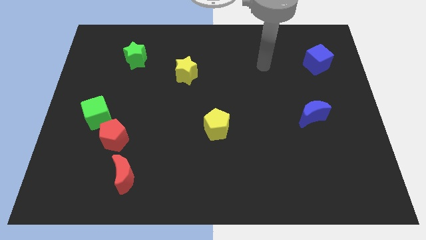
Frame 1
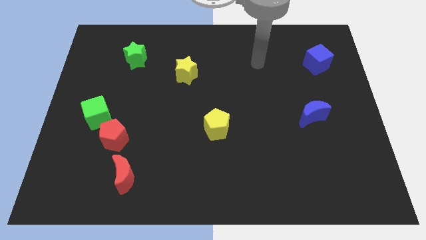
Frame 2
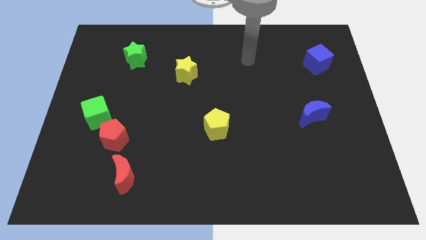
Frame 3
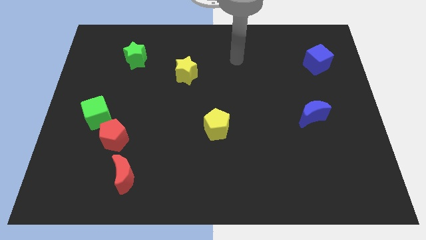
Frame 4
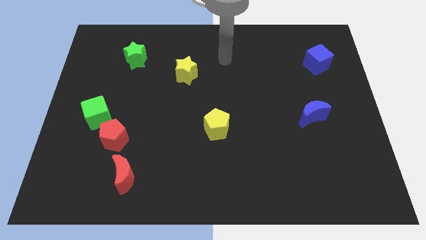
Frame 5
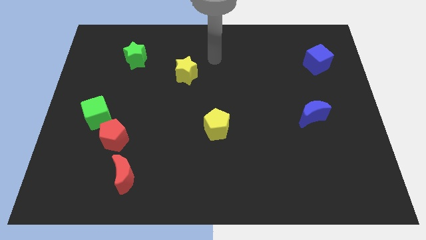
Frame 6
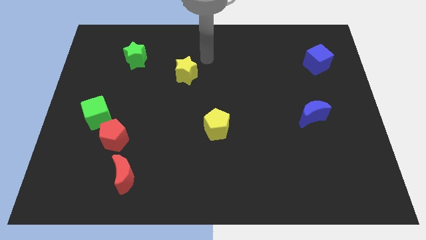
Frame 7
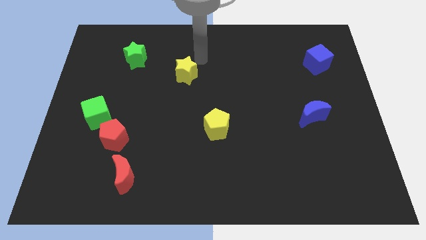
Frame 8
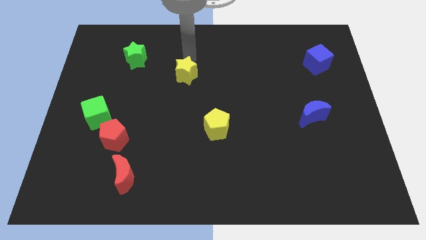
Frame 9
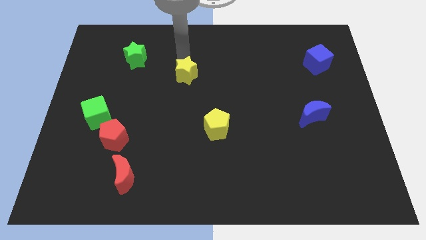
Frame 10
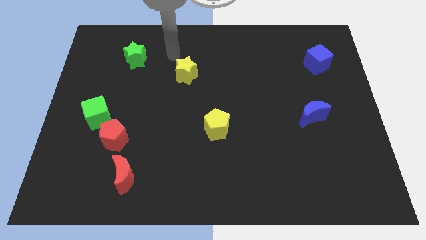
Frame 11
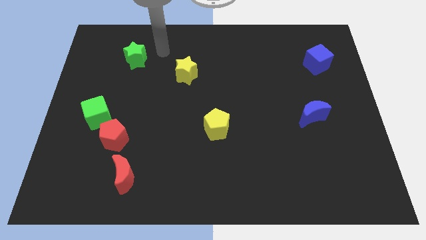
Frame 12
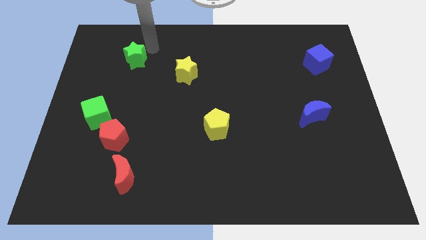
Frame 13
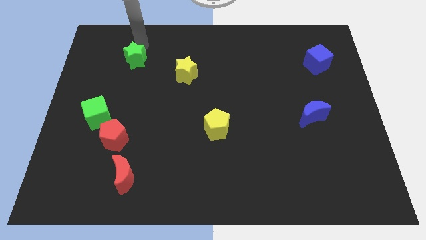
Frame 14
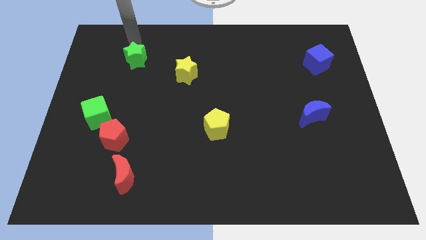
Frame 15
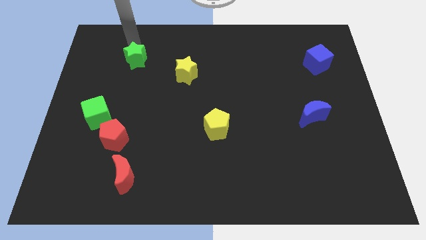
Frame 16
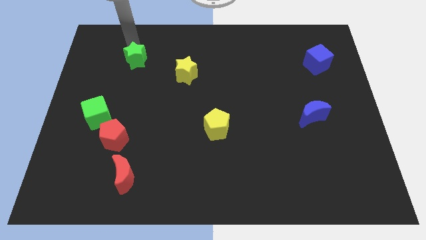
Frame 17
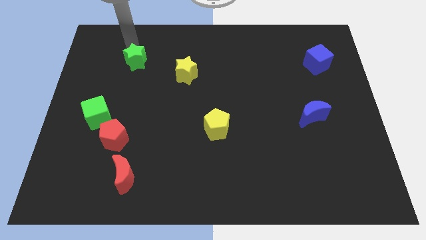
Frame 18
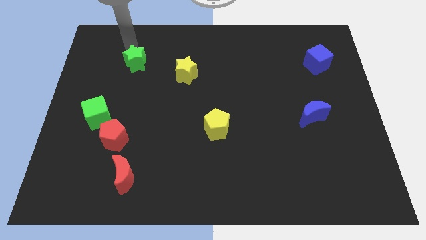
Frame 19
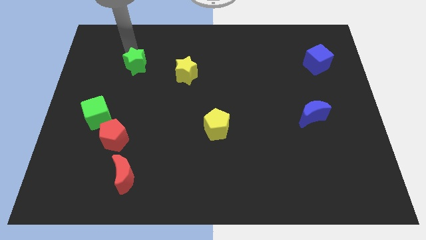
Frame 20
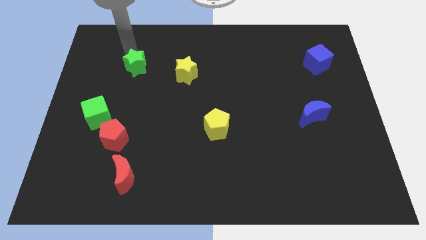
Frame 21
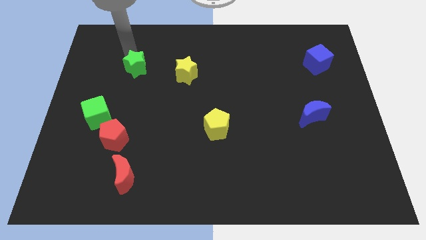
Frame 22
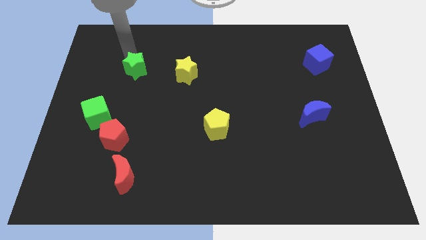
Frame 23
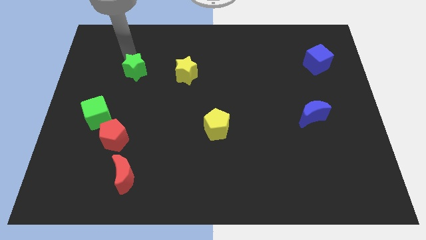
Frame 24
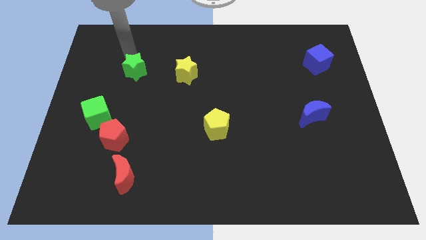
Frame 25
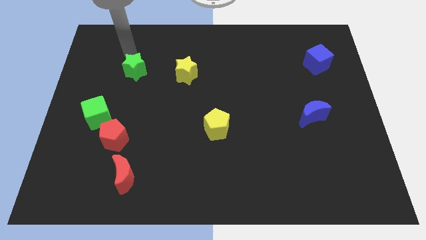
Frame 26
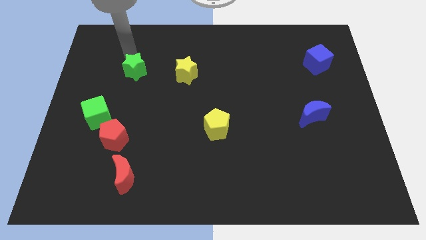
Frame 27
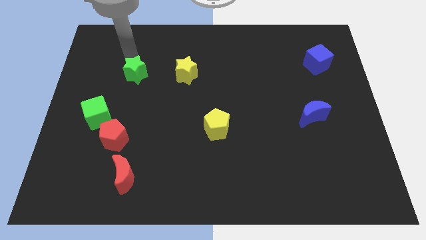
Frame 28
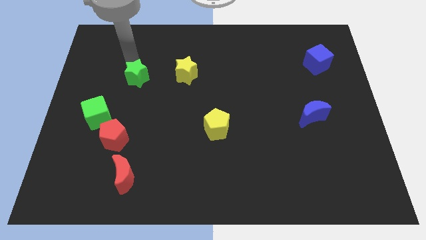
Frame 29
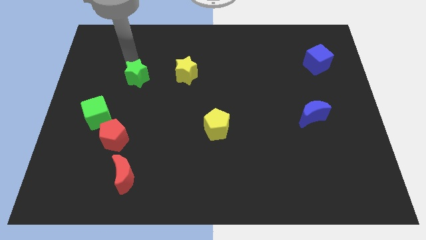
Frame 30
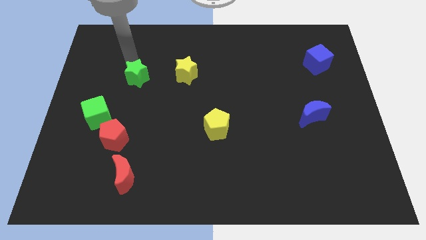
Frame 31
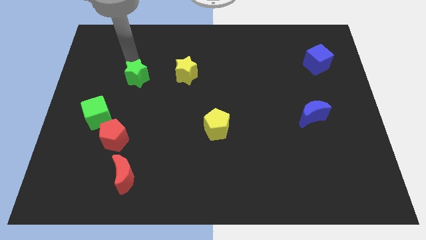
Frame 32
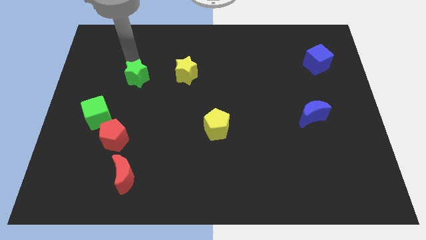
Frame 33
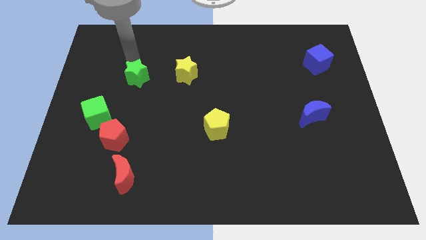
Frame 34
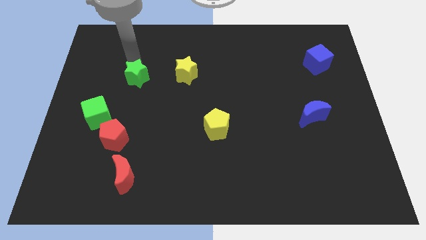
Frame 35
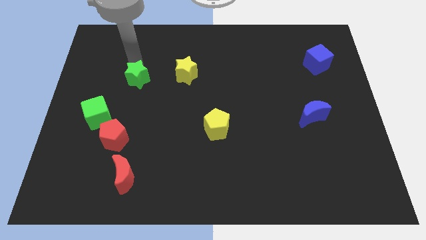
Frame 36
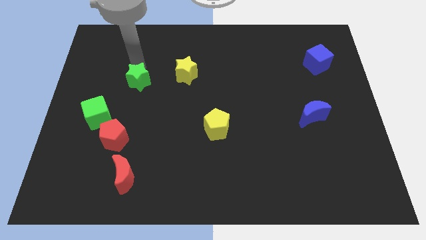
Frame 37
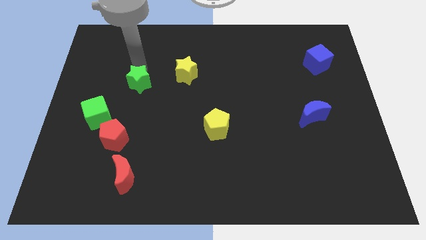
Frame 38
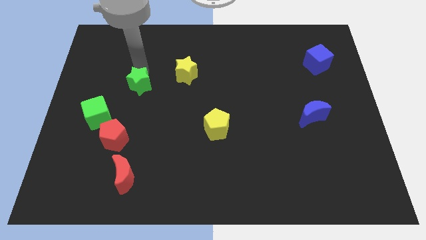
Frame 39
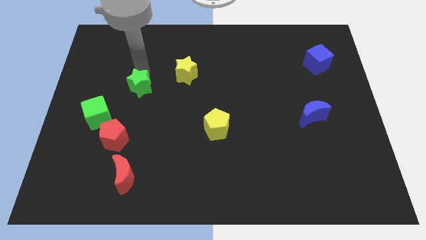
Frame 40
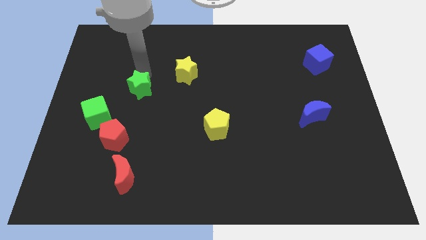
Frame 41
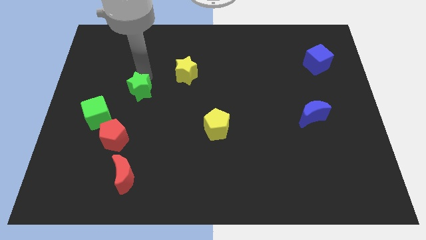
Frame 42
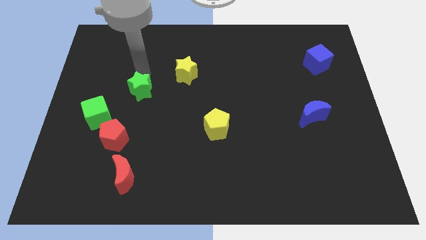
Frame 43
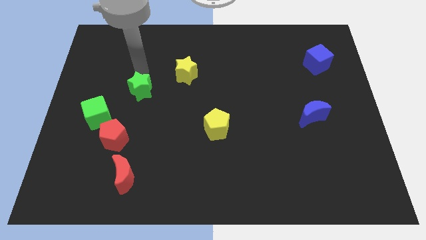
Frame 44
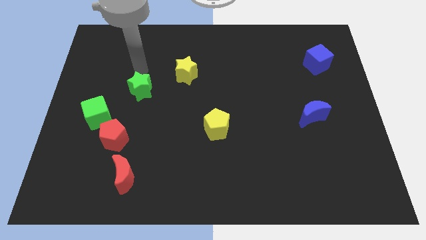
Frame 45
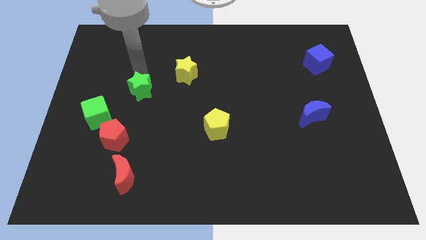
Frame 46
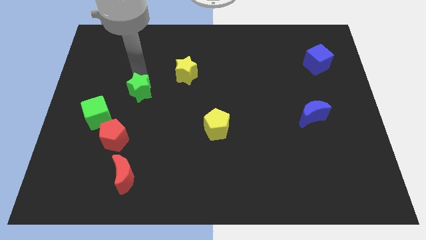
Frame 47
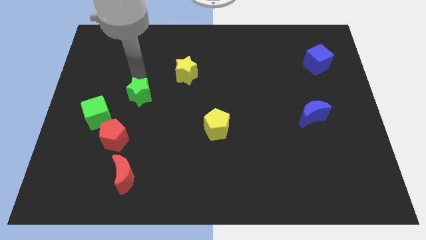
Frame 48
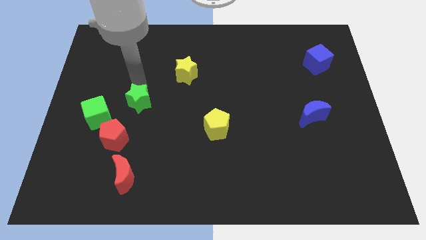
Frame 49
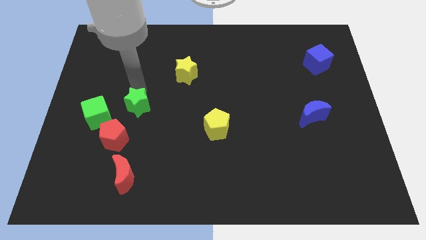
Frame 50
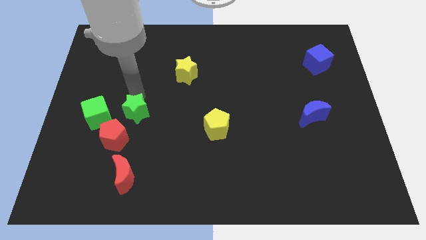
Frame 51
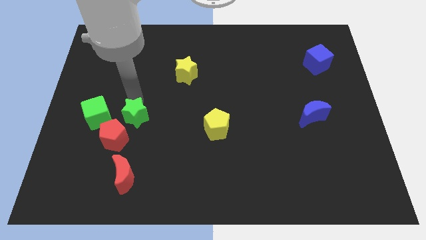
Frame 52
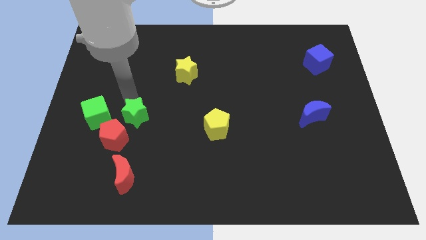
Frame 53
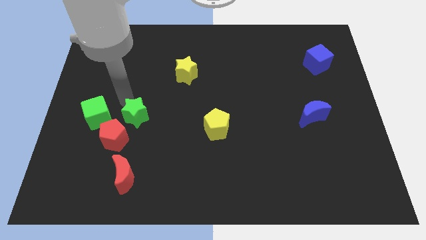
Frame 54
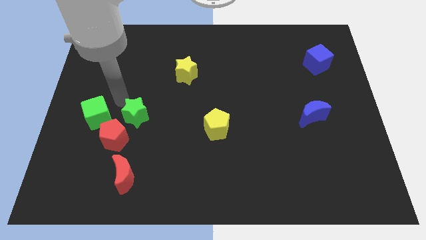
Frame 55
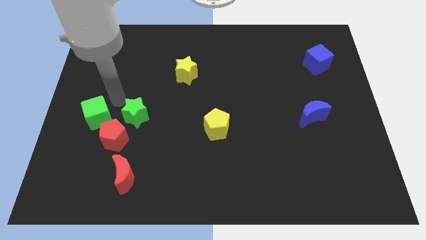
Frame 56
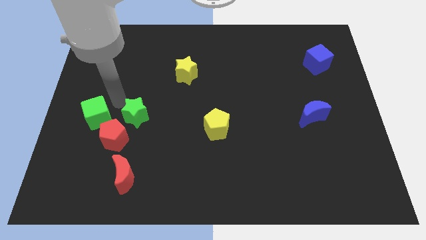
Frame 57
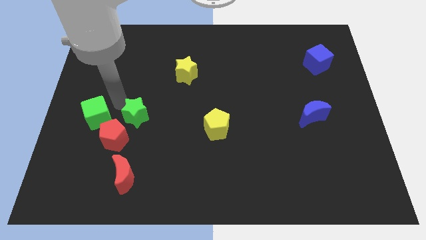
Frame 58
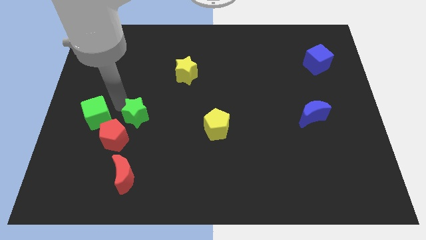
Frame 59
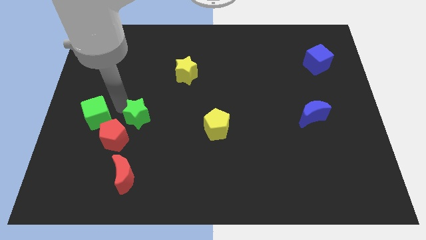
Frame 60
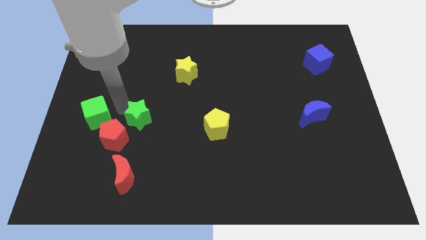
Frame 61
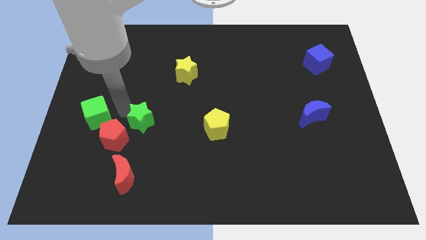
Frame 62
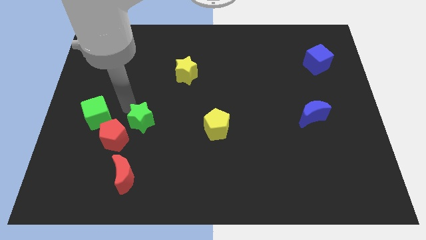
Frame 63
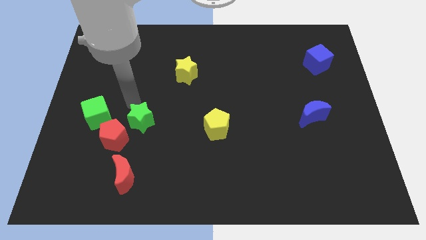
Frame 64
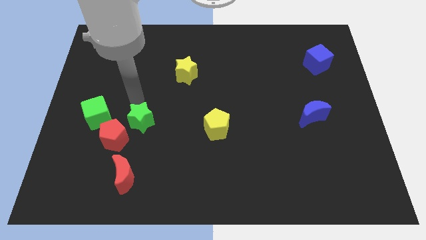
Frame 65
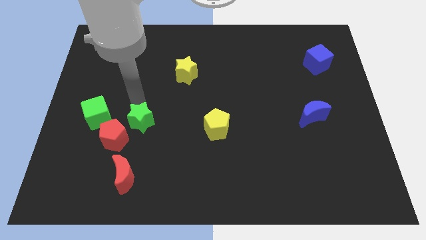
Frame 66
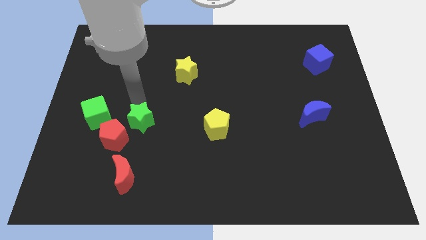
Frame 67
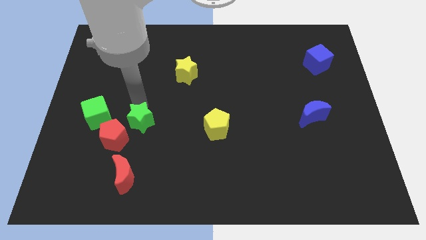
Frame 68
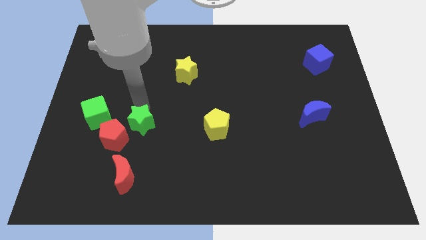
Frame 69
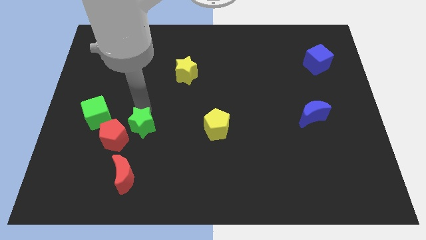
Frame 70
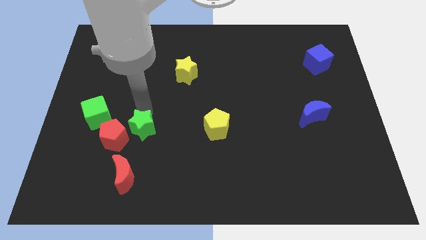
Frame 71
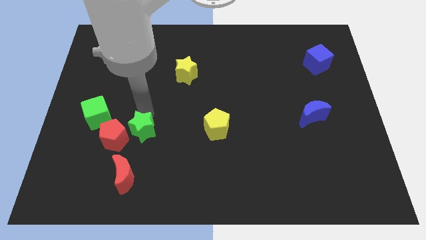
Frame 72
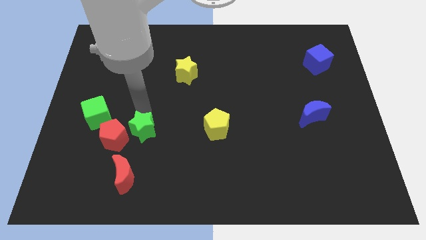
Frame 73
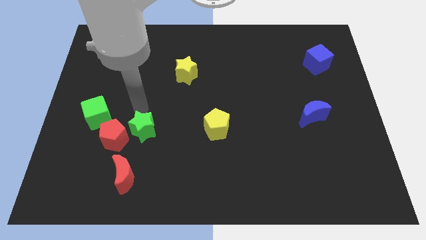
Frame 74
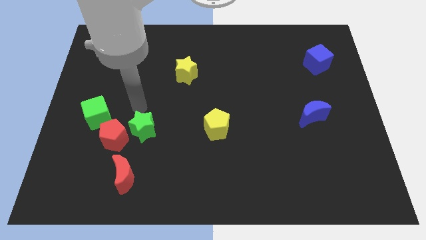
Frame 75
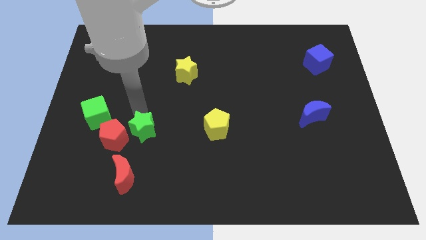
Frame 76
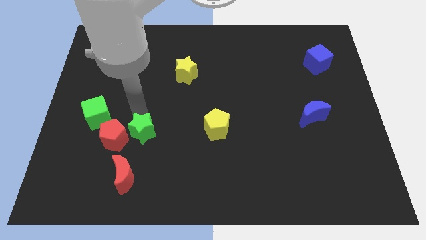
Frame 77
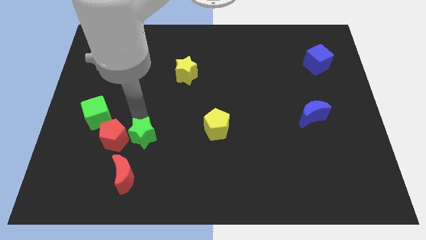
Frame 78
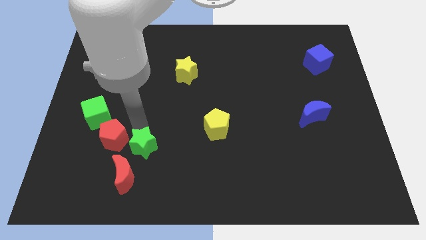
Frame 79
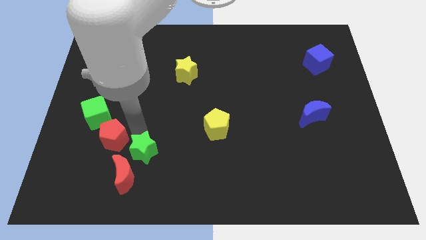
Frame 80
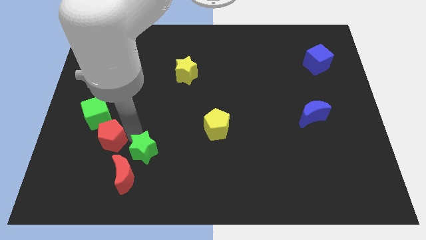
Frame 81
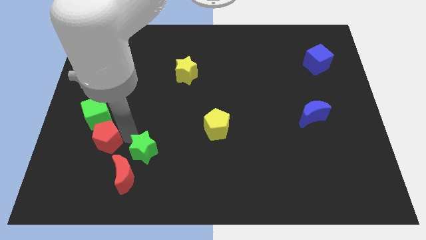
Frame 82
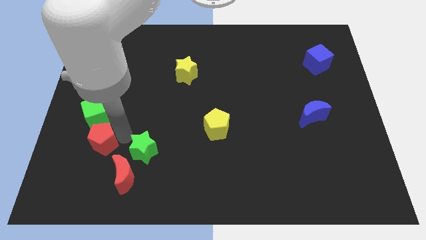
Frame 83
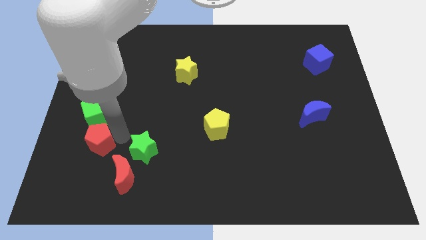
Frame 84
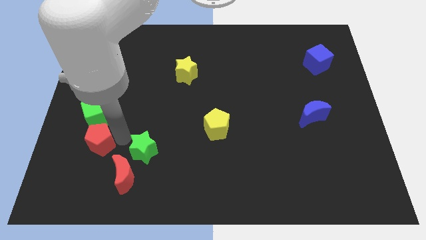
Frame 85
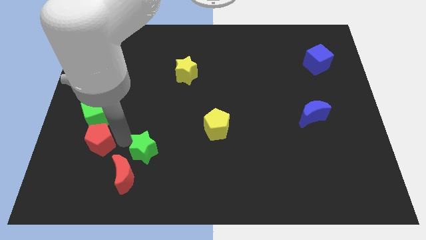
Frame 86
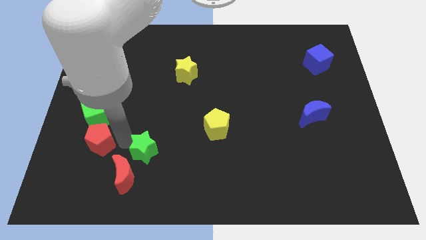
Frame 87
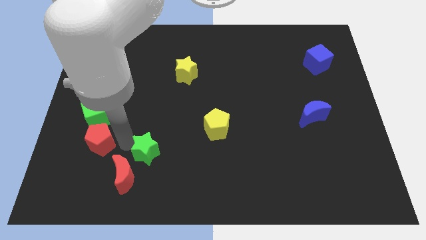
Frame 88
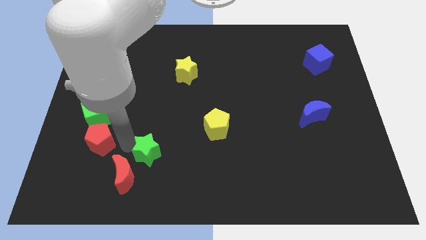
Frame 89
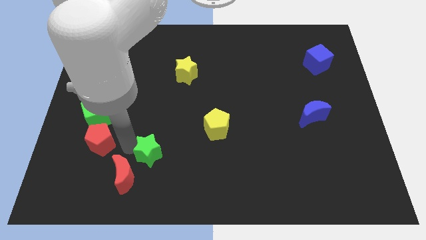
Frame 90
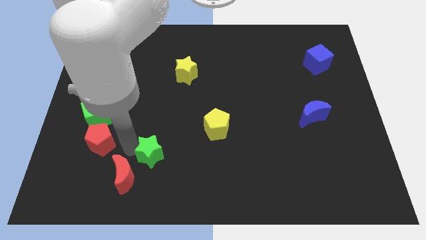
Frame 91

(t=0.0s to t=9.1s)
put the green star right of the red moon
